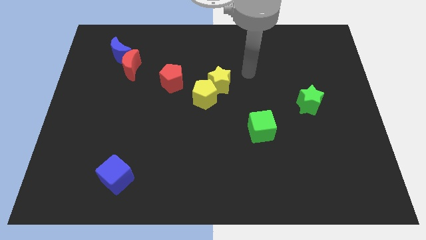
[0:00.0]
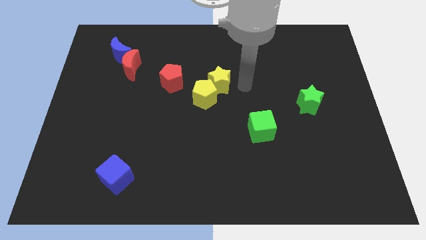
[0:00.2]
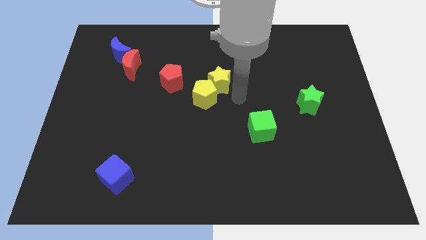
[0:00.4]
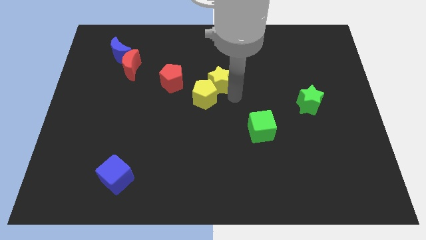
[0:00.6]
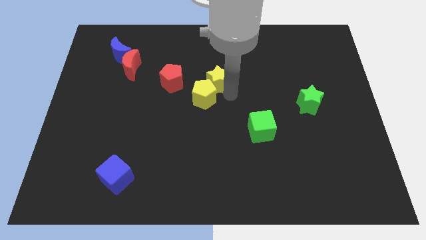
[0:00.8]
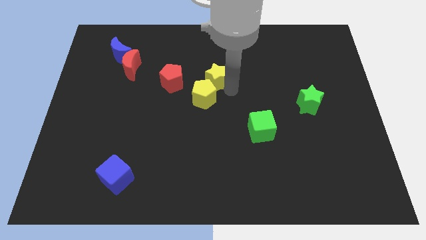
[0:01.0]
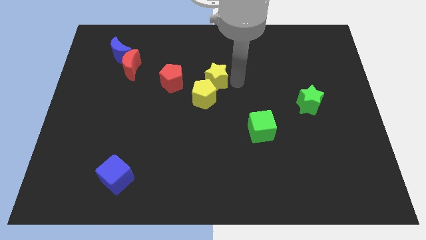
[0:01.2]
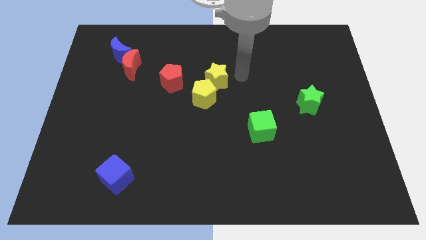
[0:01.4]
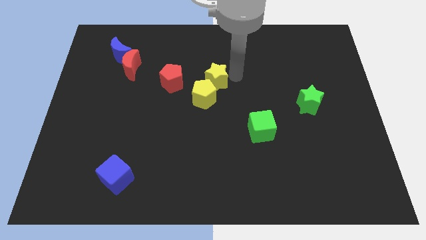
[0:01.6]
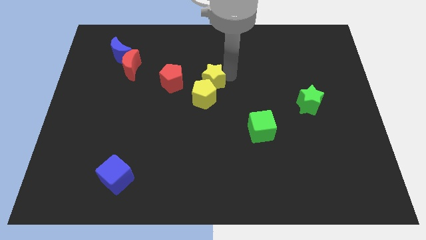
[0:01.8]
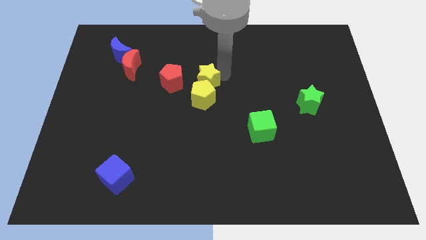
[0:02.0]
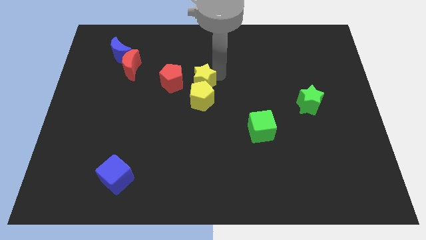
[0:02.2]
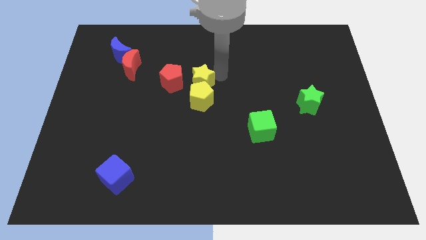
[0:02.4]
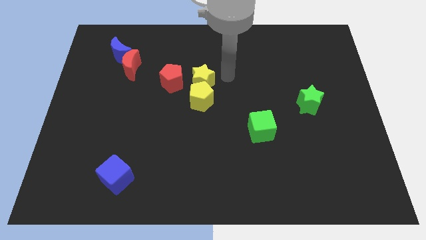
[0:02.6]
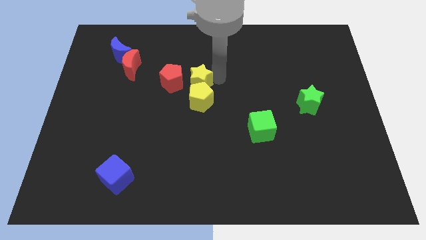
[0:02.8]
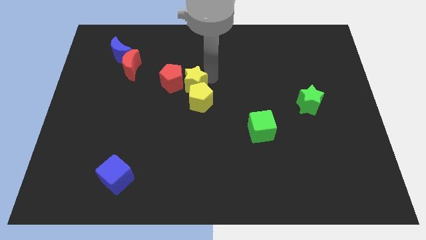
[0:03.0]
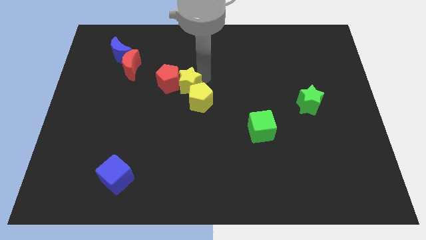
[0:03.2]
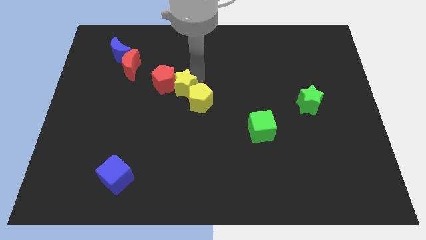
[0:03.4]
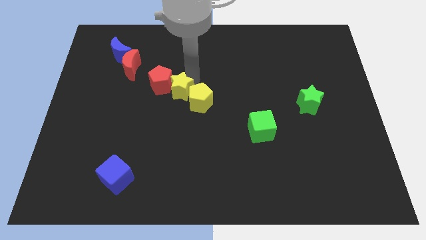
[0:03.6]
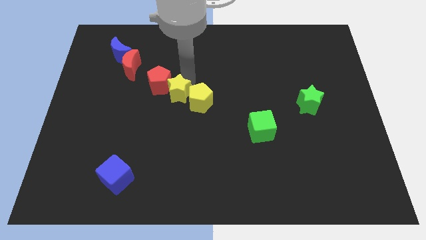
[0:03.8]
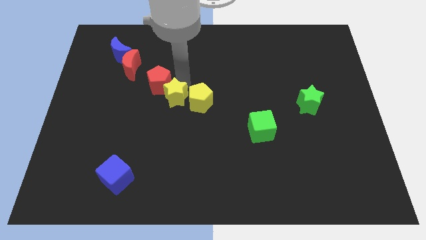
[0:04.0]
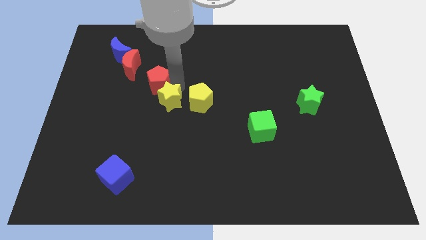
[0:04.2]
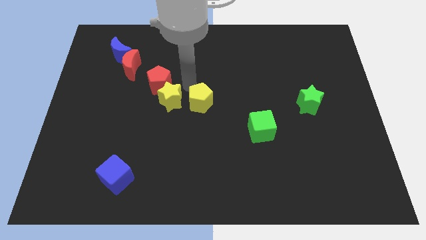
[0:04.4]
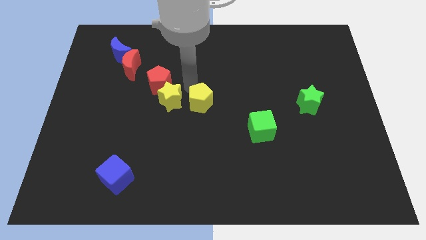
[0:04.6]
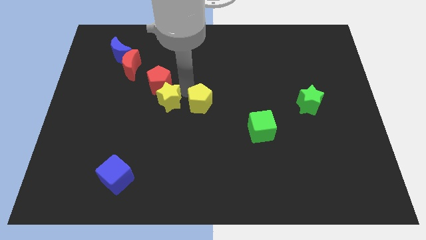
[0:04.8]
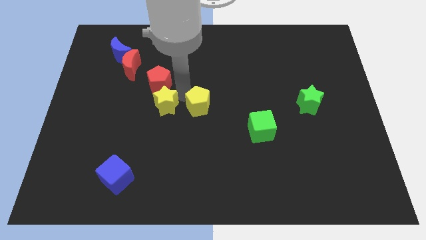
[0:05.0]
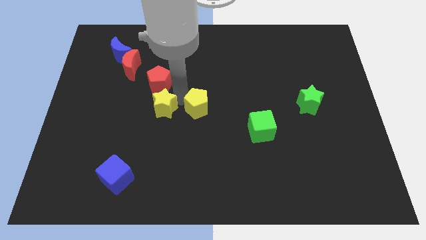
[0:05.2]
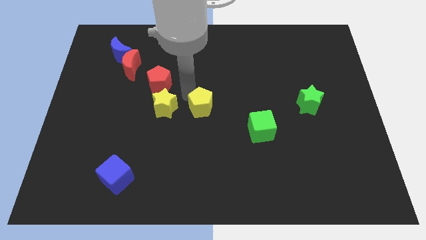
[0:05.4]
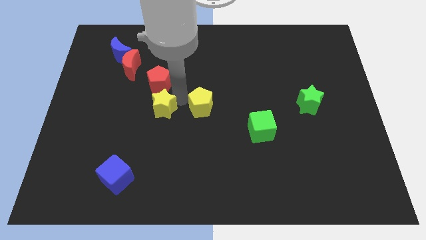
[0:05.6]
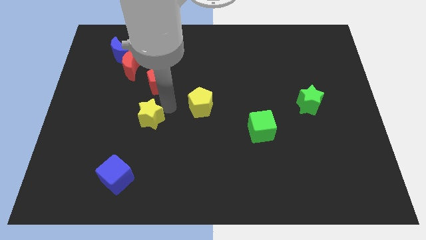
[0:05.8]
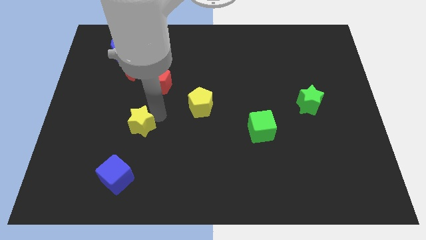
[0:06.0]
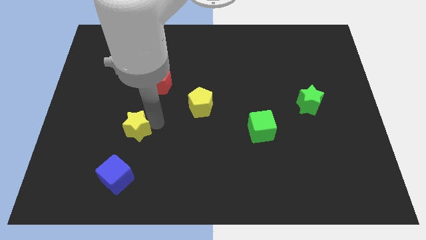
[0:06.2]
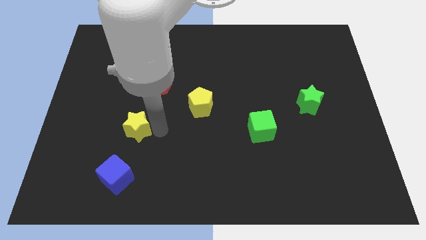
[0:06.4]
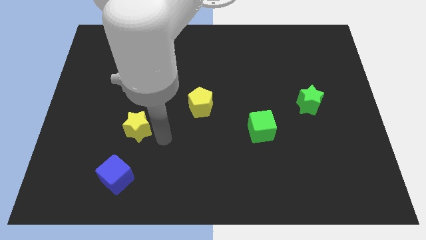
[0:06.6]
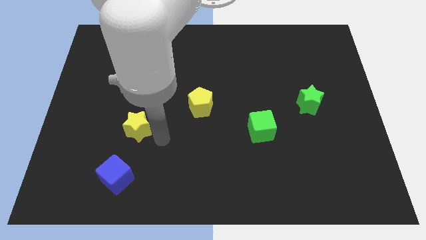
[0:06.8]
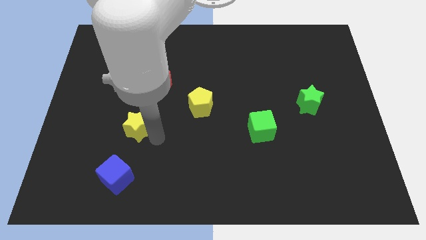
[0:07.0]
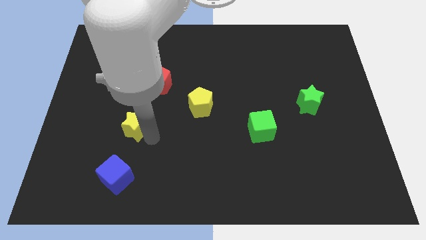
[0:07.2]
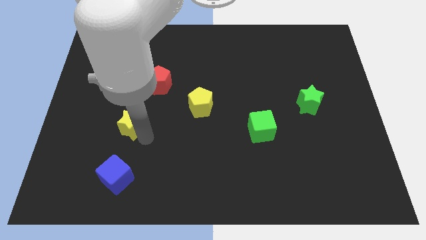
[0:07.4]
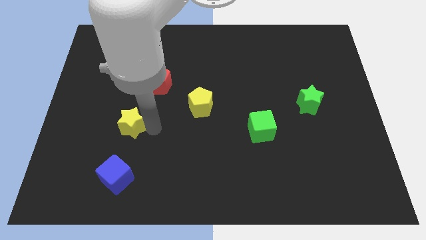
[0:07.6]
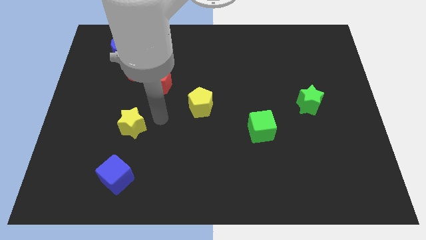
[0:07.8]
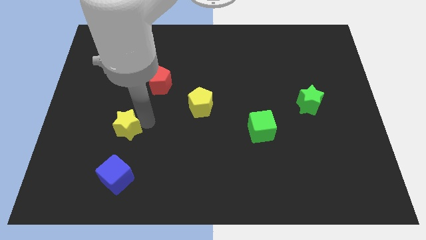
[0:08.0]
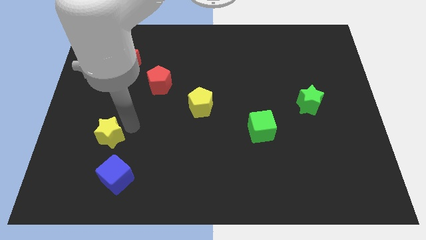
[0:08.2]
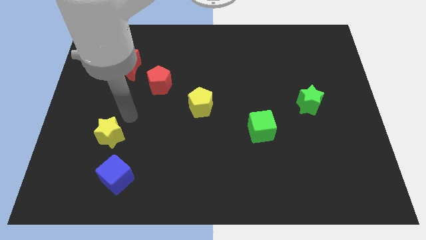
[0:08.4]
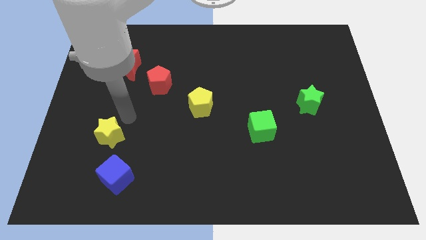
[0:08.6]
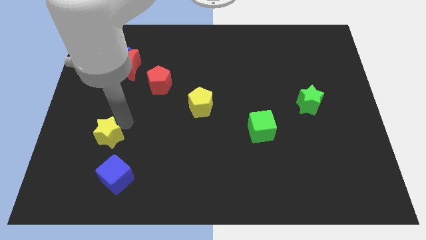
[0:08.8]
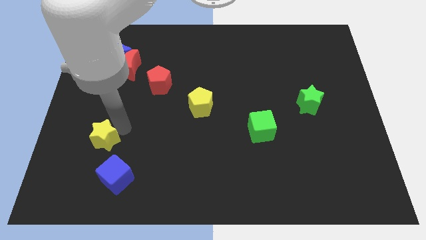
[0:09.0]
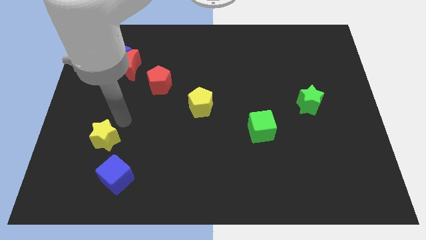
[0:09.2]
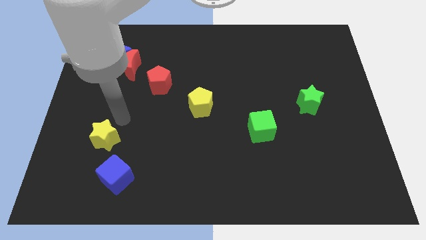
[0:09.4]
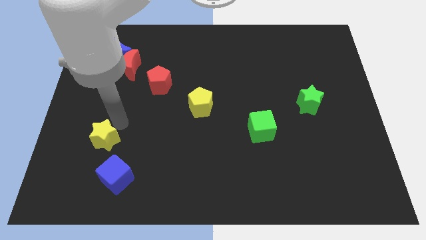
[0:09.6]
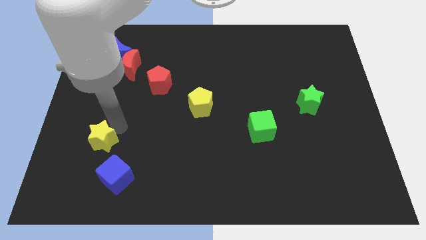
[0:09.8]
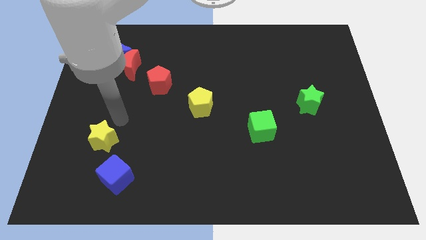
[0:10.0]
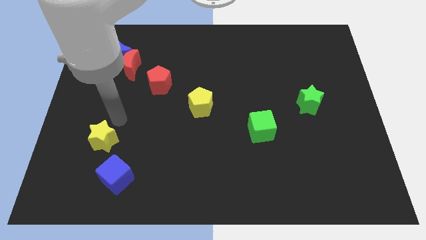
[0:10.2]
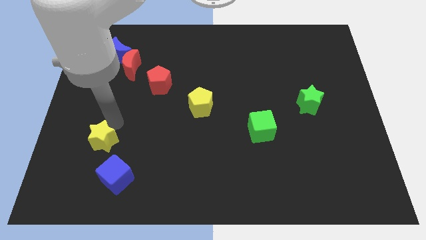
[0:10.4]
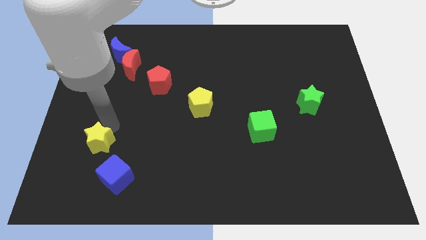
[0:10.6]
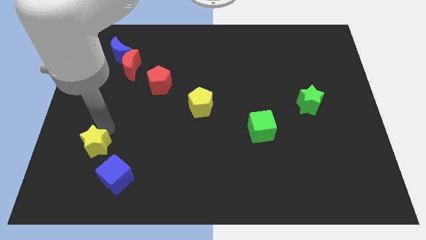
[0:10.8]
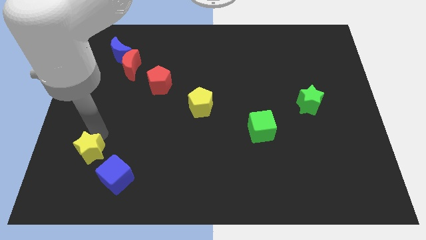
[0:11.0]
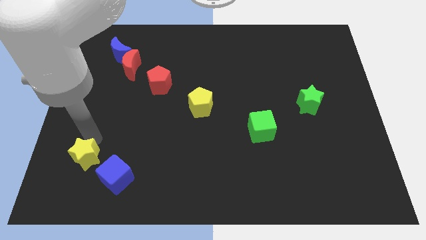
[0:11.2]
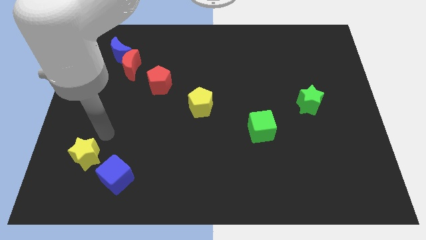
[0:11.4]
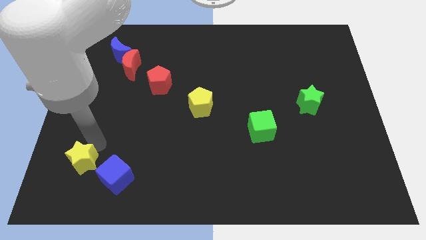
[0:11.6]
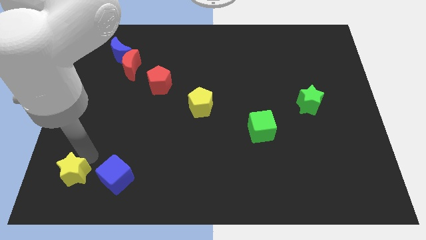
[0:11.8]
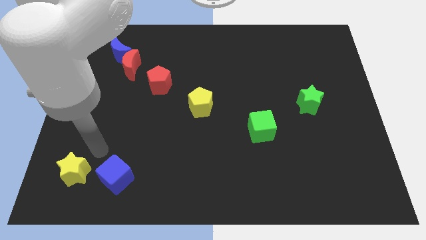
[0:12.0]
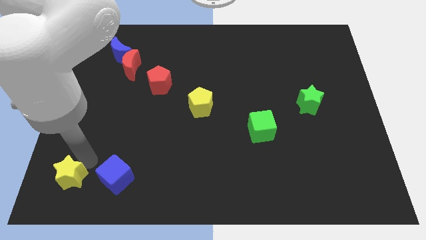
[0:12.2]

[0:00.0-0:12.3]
push the yellow star to the bottom left corner

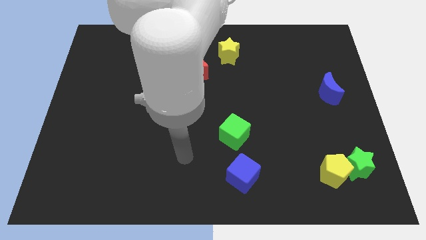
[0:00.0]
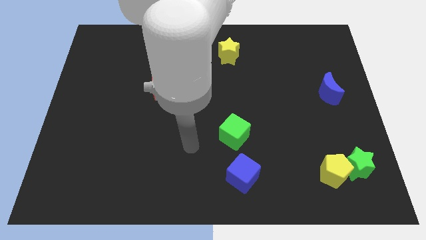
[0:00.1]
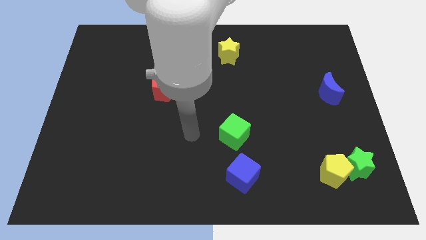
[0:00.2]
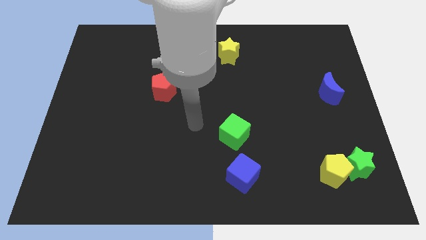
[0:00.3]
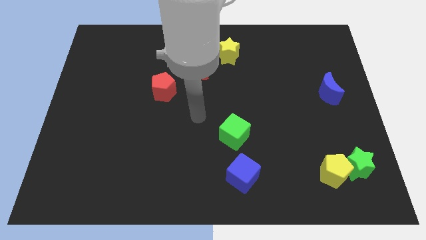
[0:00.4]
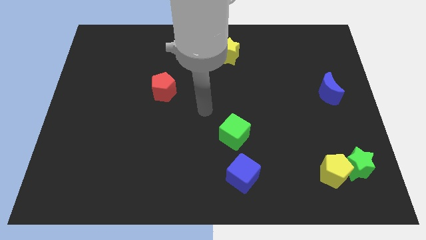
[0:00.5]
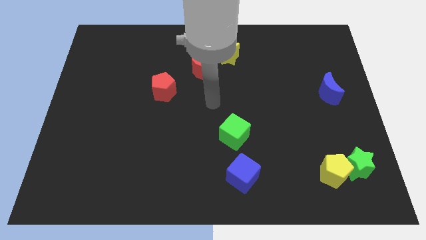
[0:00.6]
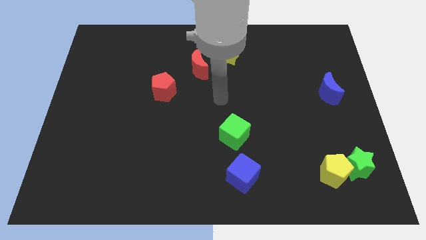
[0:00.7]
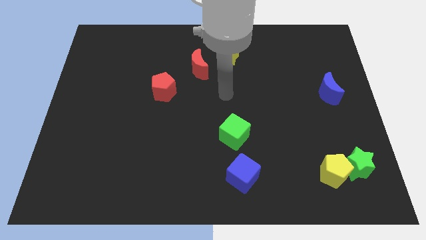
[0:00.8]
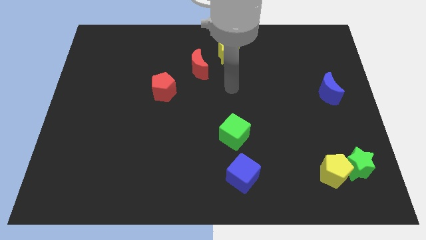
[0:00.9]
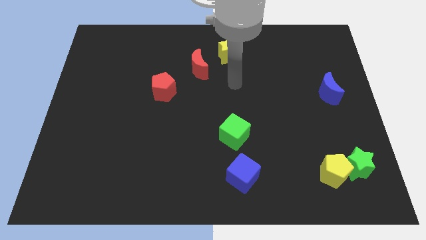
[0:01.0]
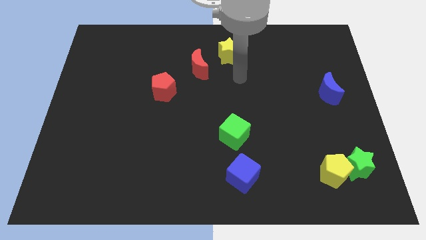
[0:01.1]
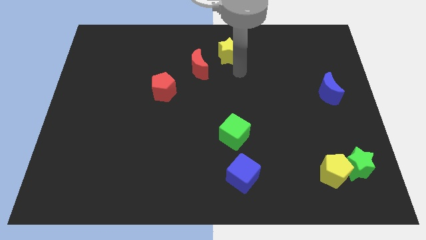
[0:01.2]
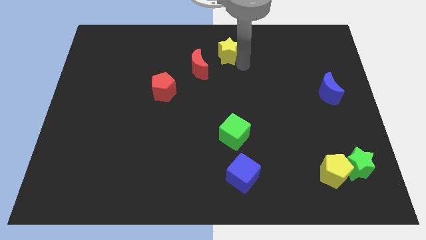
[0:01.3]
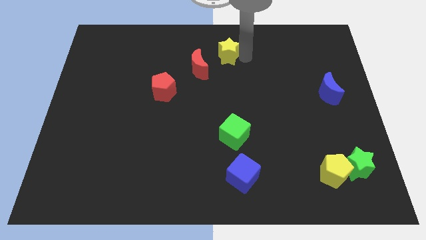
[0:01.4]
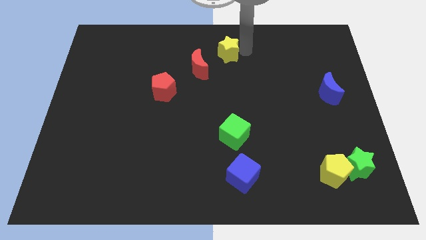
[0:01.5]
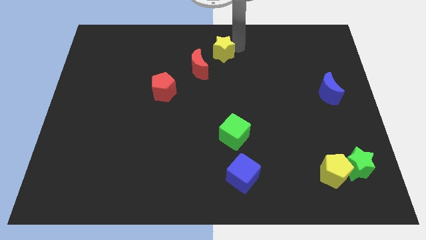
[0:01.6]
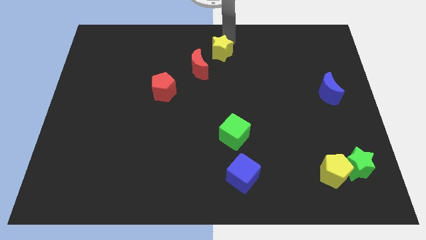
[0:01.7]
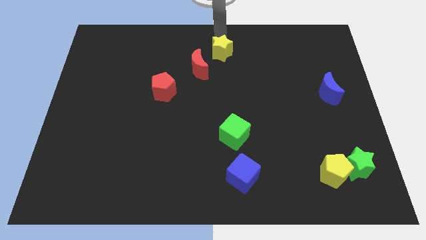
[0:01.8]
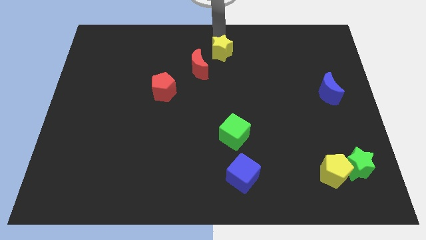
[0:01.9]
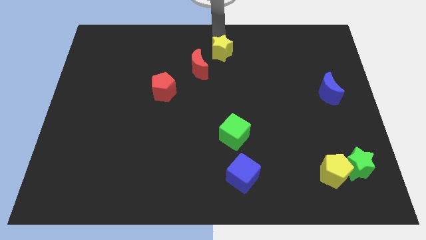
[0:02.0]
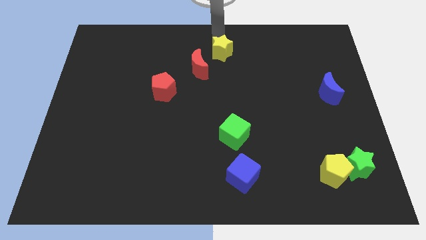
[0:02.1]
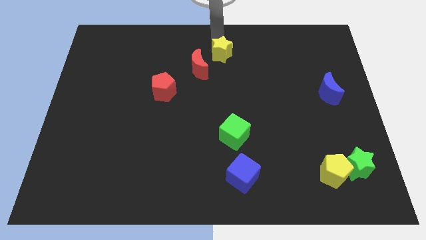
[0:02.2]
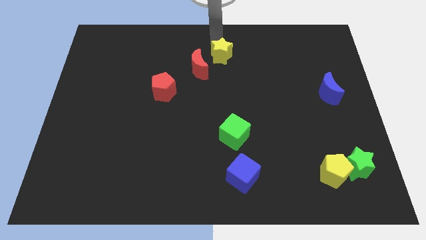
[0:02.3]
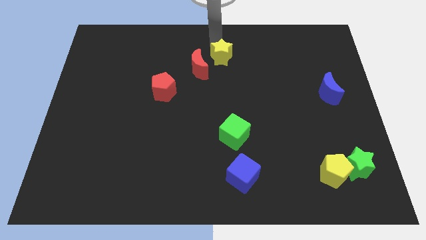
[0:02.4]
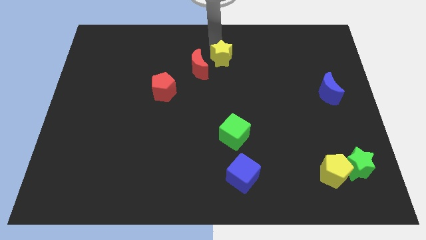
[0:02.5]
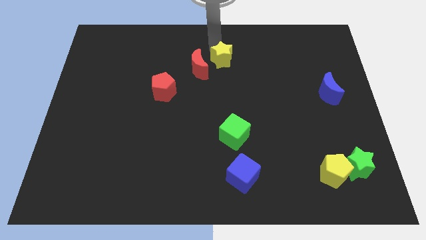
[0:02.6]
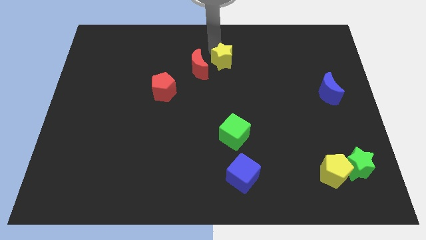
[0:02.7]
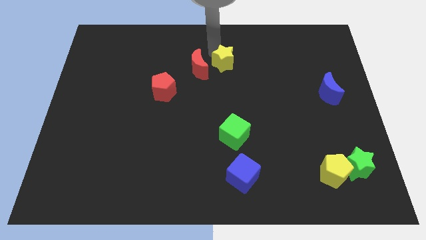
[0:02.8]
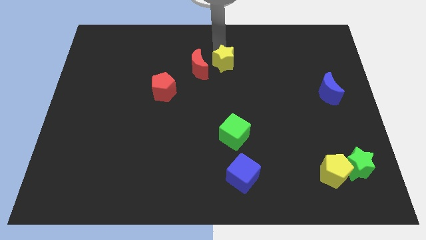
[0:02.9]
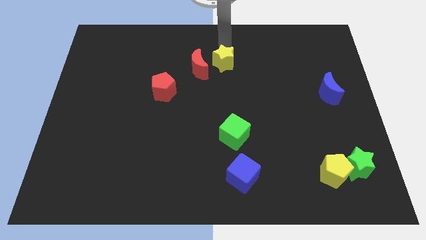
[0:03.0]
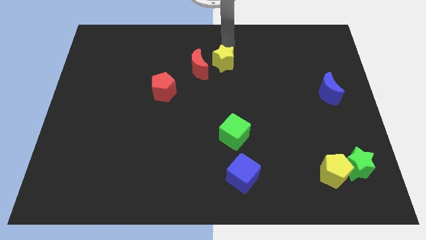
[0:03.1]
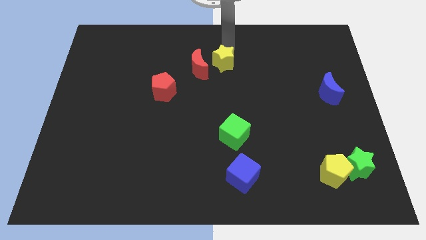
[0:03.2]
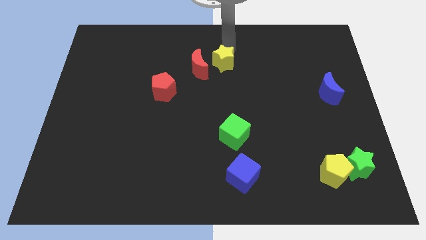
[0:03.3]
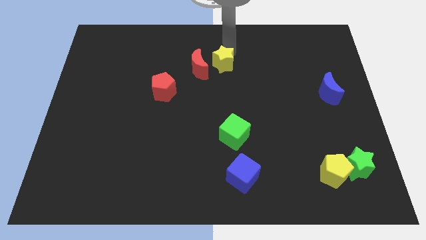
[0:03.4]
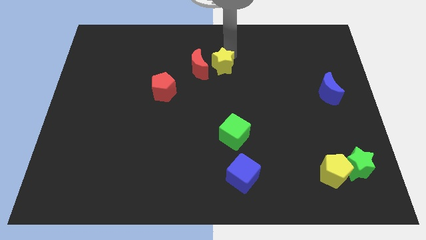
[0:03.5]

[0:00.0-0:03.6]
push the yellow star to the center of the board
